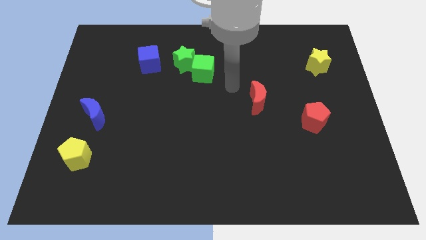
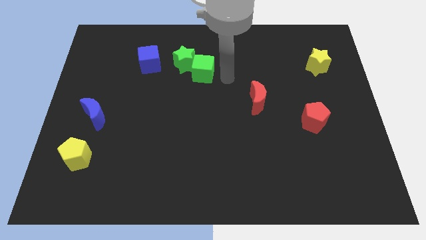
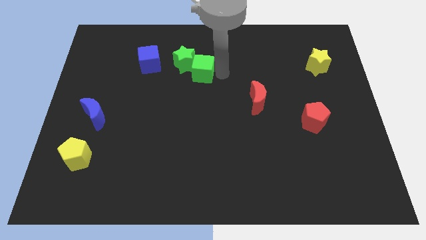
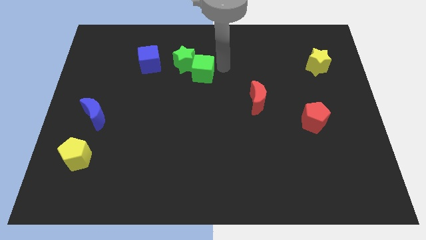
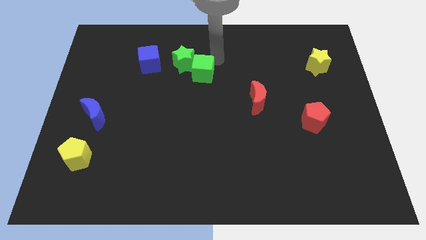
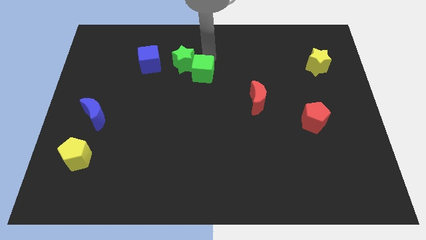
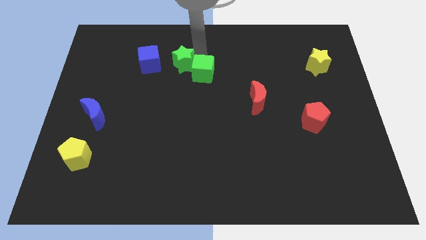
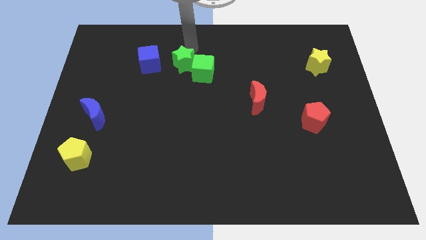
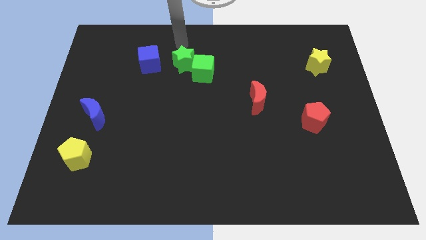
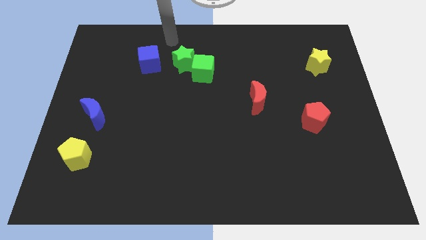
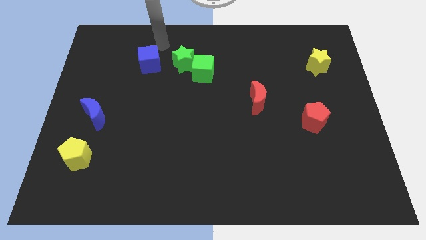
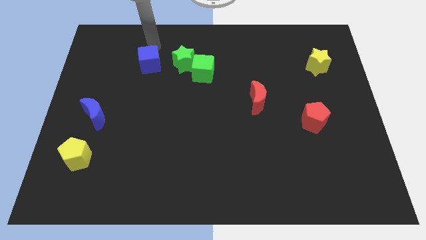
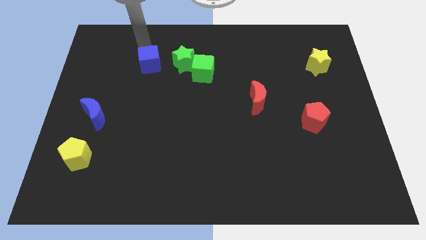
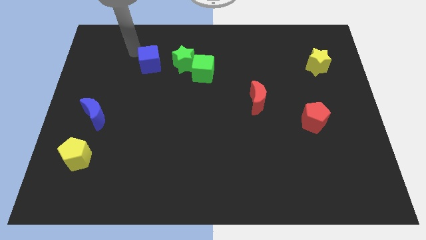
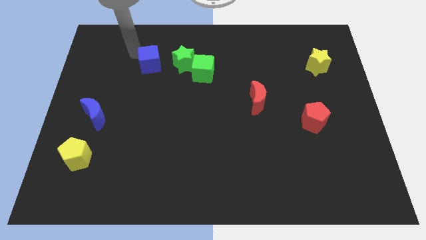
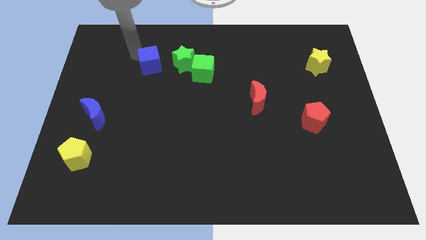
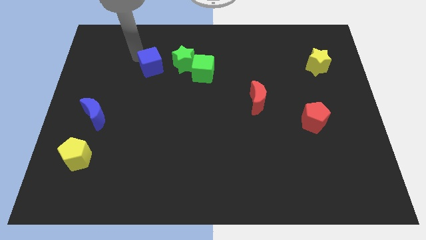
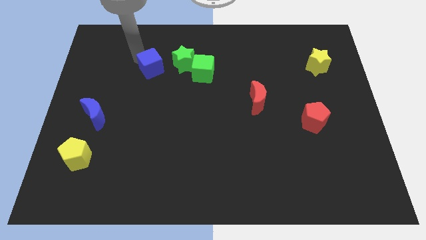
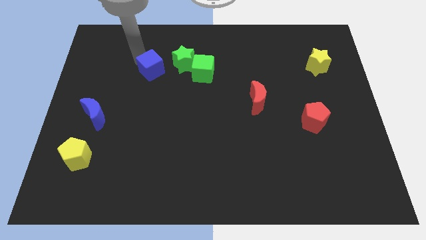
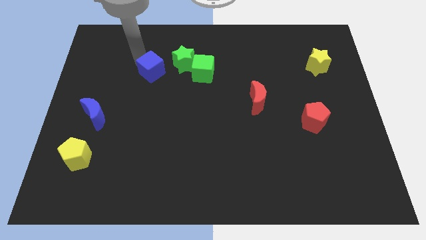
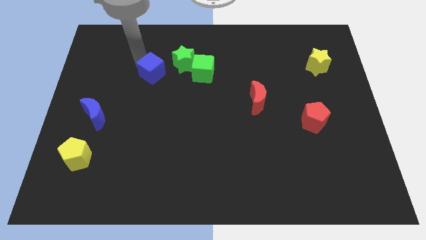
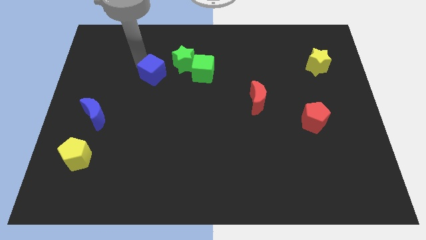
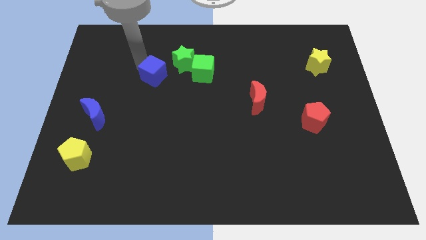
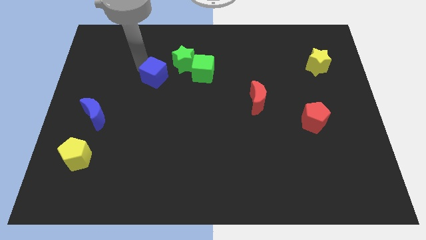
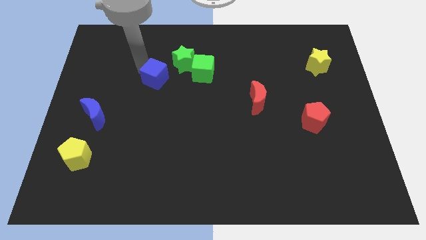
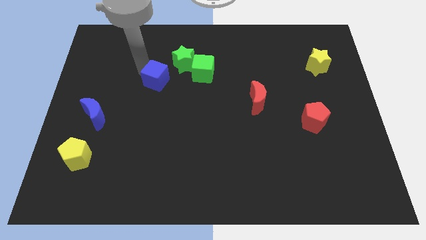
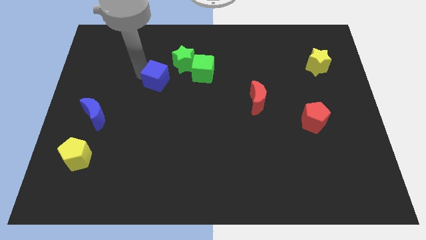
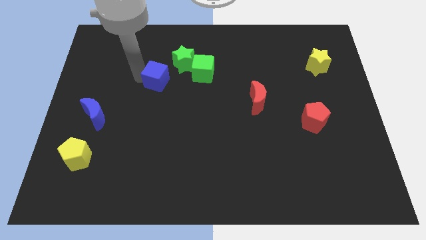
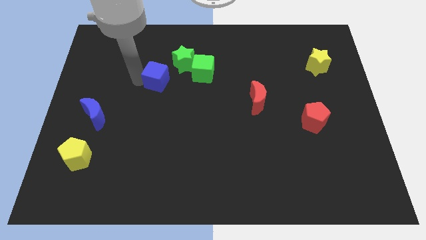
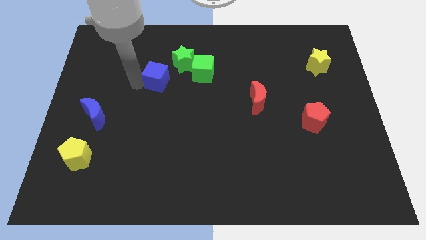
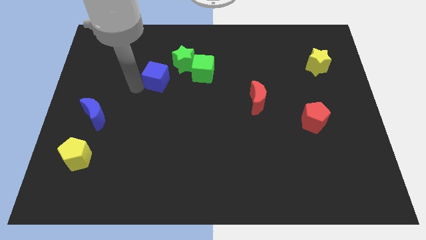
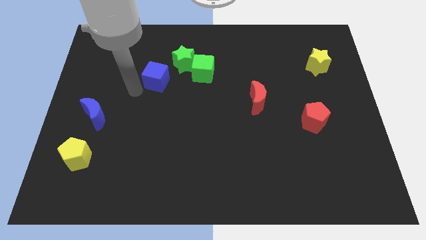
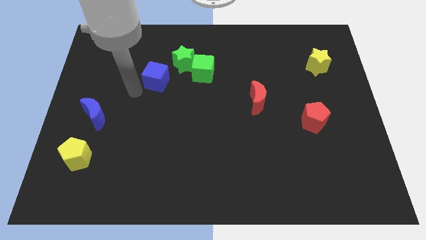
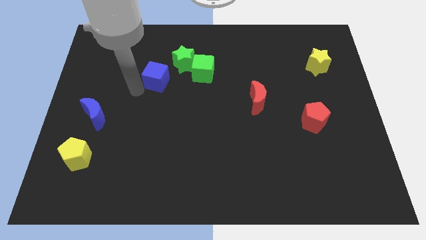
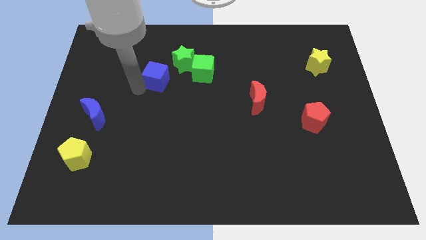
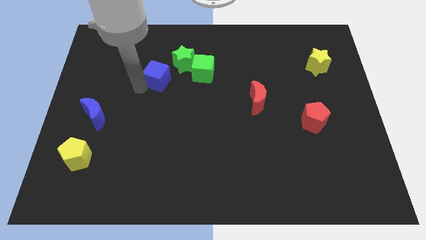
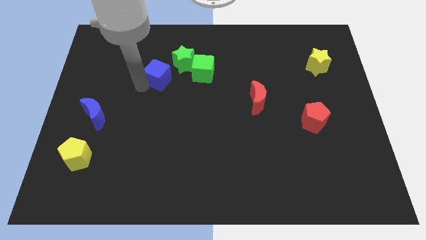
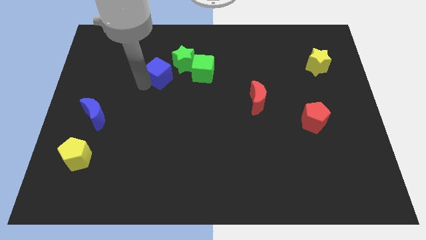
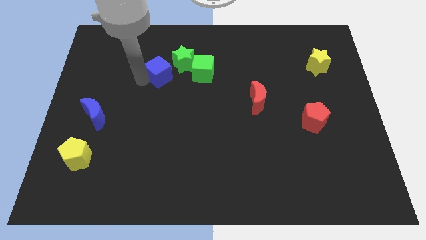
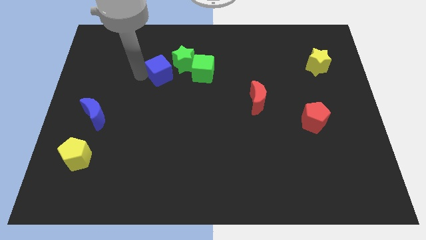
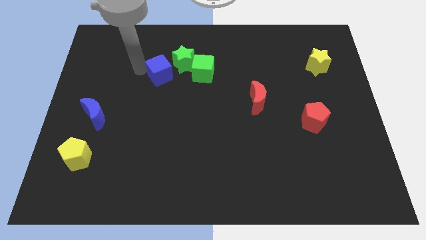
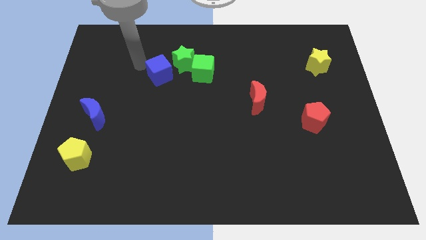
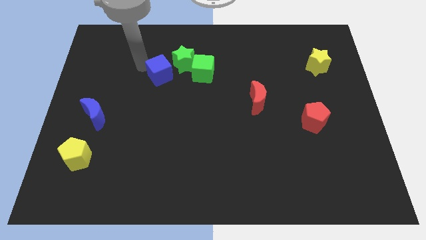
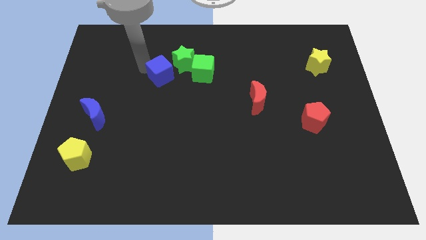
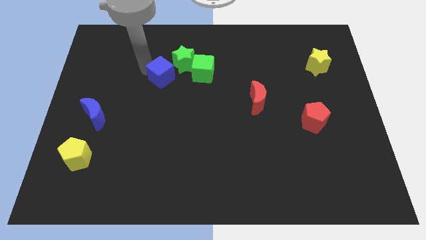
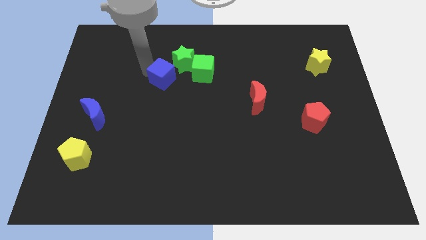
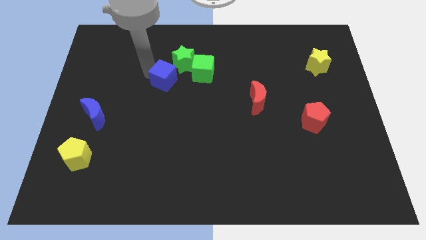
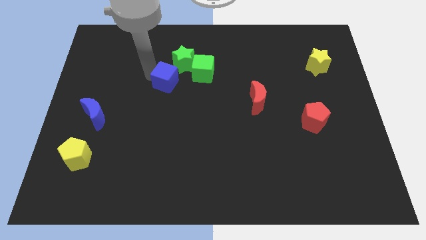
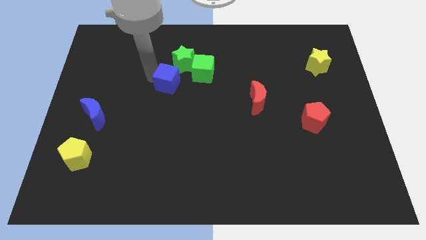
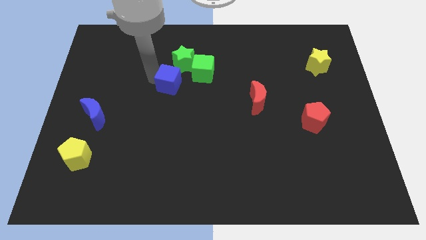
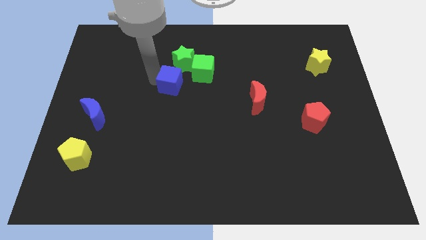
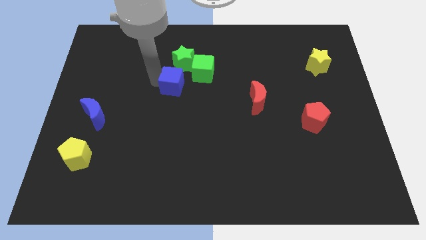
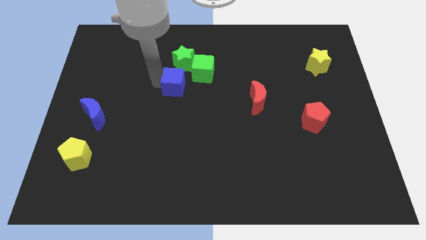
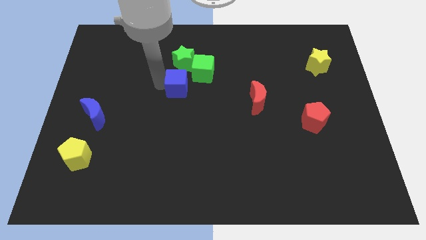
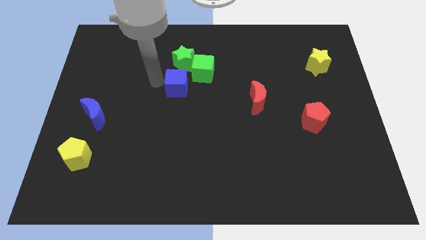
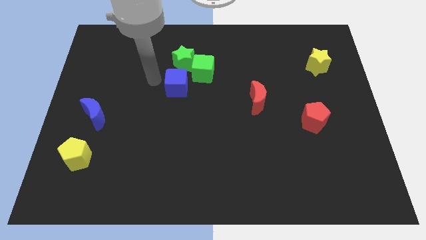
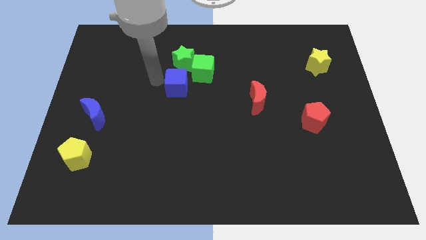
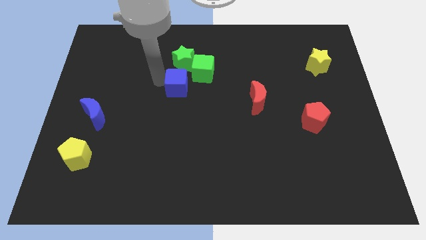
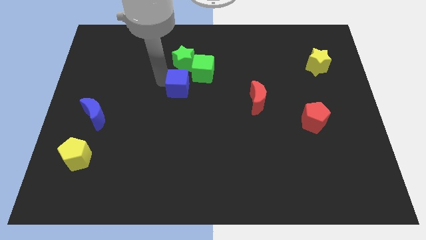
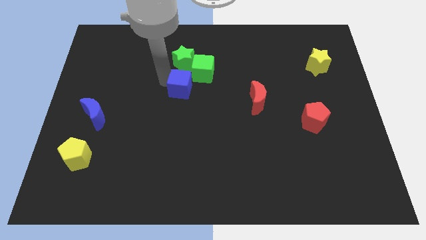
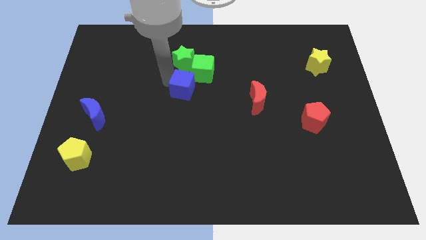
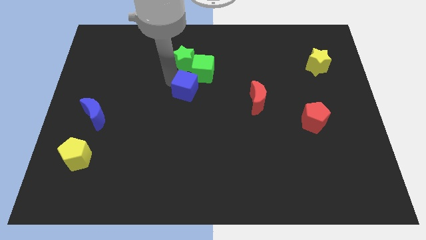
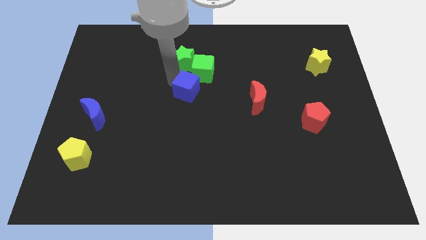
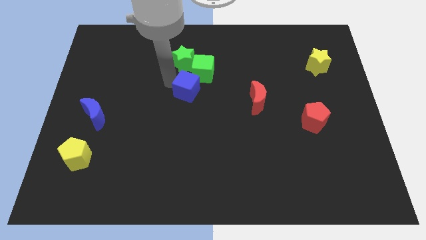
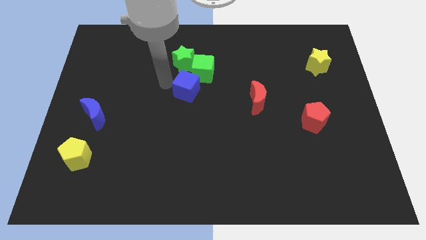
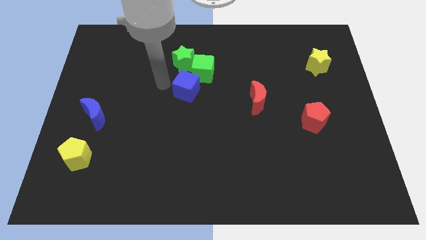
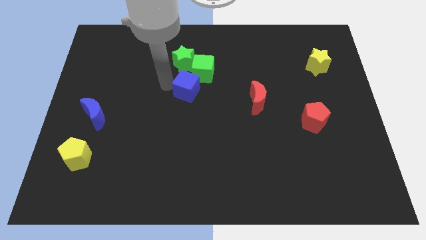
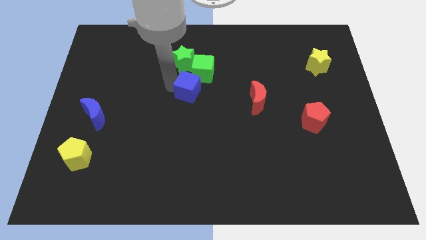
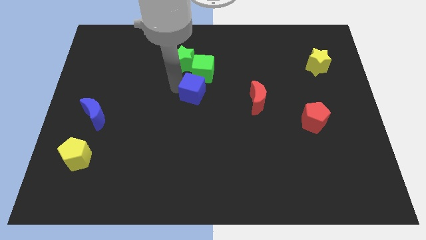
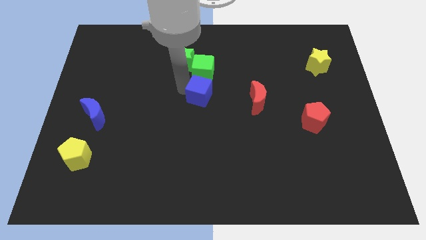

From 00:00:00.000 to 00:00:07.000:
slide the blue cube to the left of the red moon

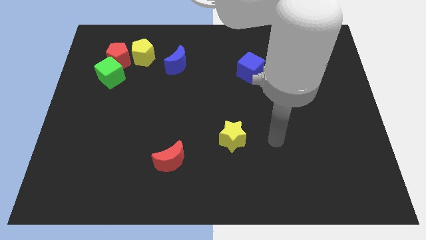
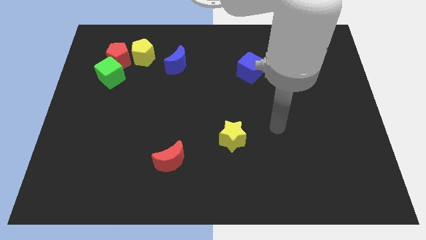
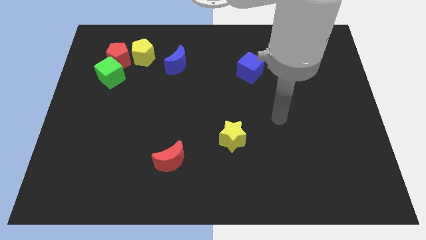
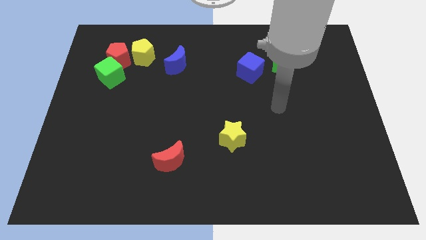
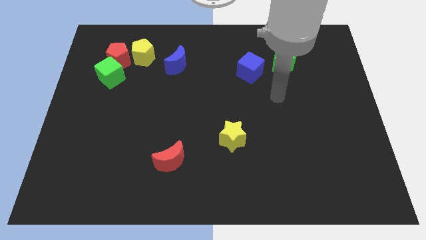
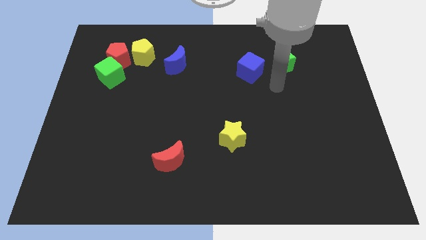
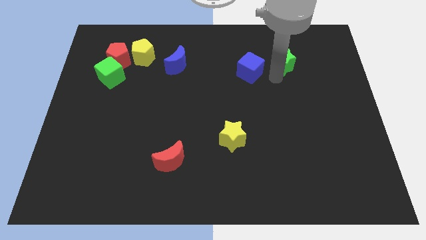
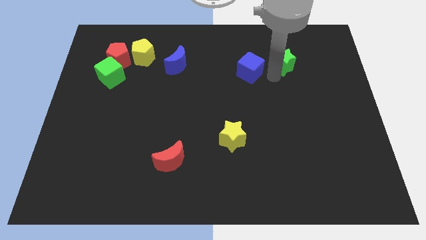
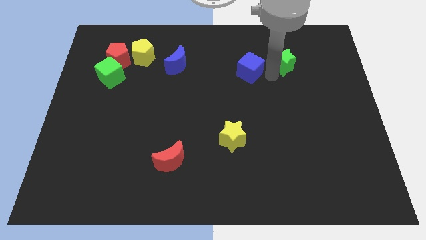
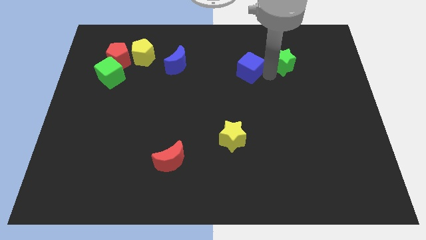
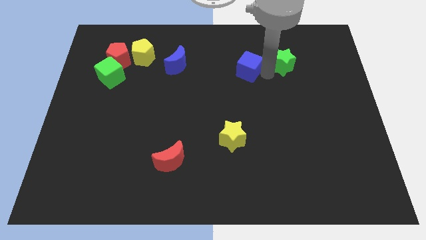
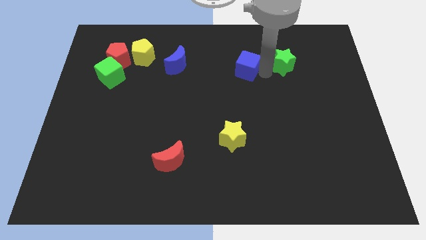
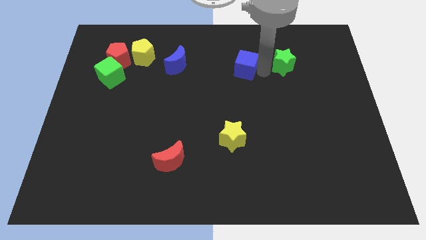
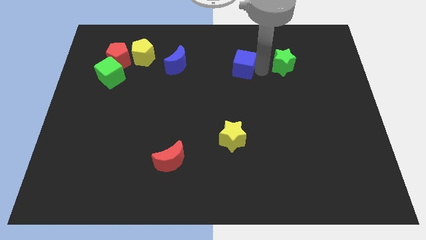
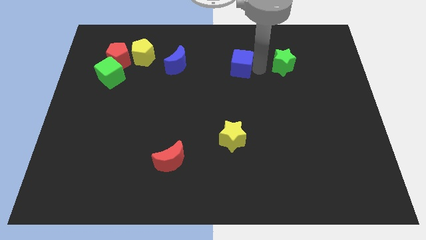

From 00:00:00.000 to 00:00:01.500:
move the blue cube to the right of the blue moon
